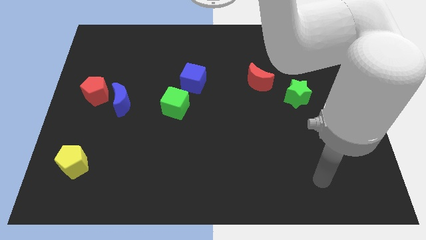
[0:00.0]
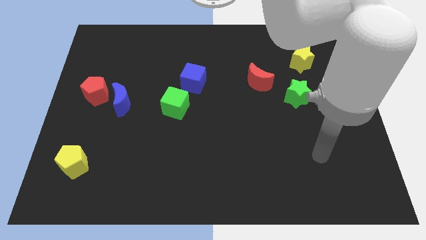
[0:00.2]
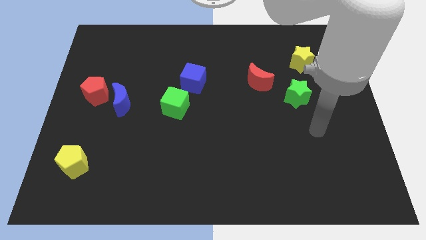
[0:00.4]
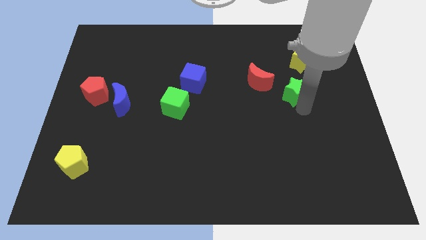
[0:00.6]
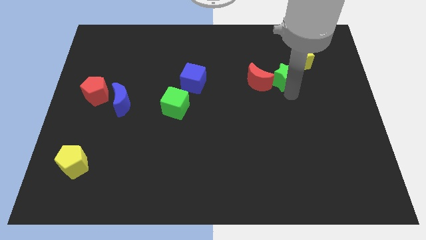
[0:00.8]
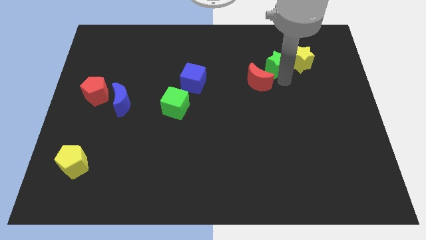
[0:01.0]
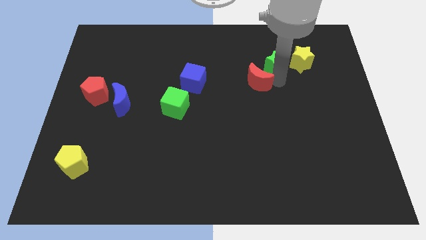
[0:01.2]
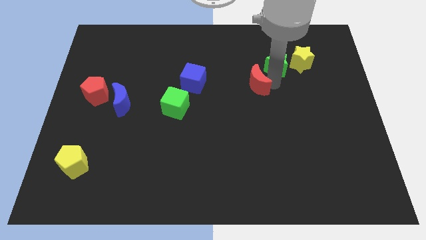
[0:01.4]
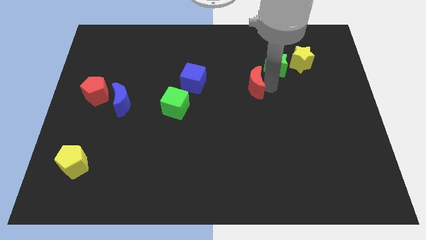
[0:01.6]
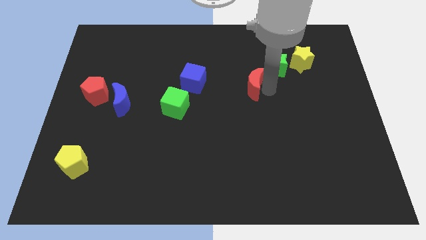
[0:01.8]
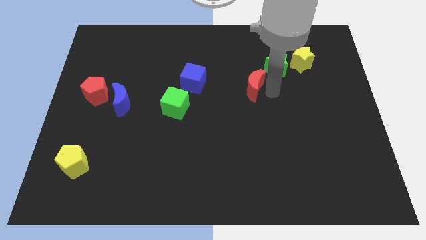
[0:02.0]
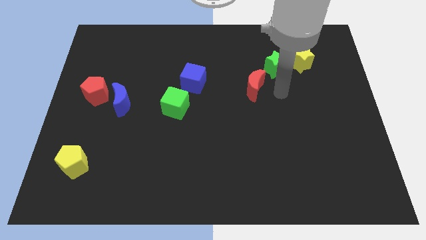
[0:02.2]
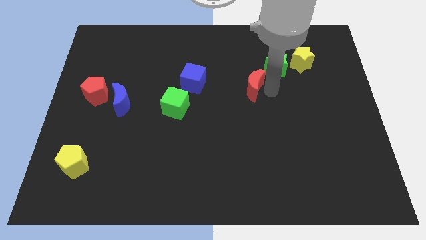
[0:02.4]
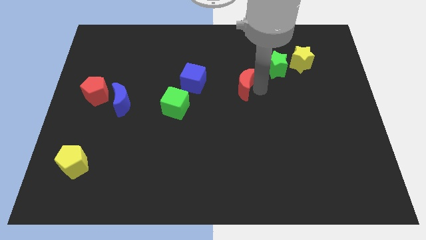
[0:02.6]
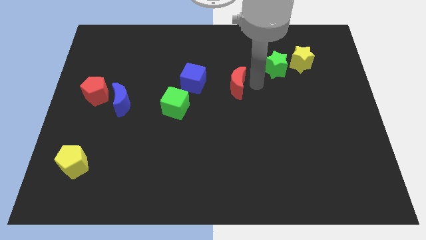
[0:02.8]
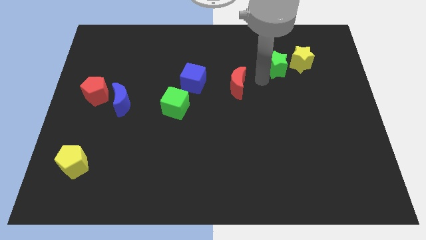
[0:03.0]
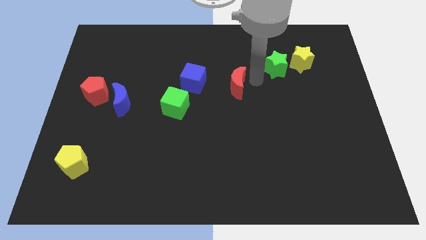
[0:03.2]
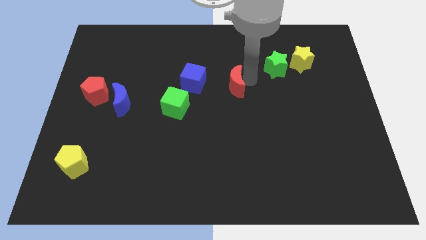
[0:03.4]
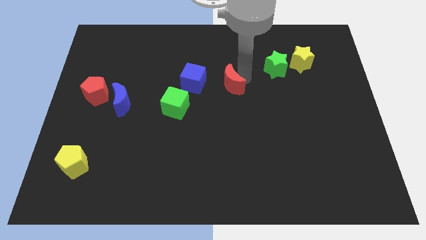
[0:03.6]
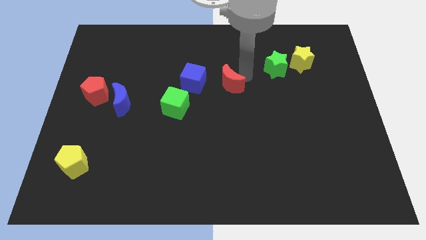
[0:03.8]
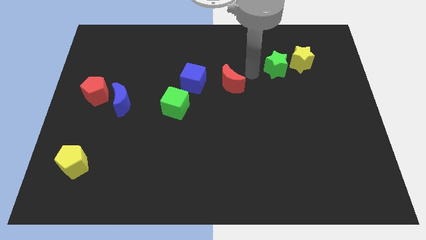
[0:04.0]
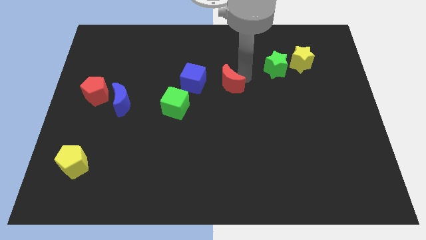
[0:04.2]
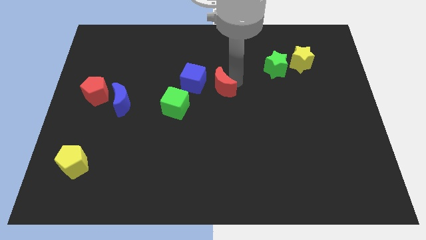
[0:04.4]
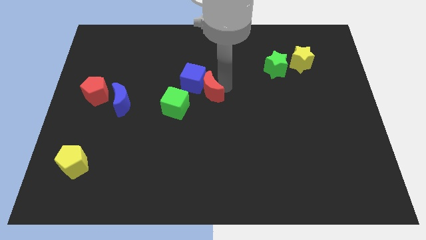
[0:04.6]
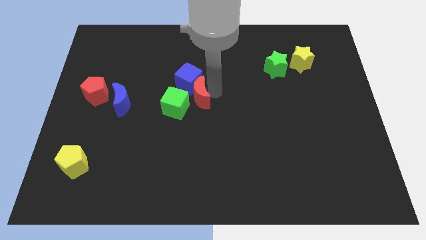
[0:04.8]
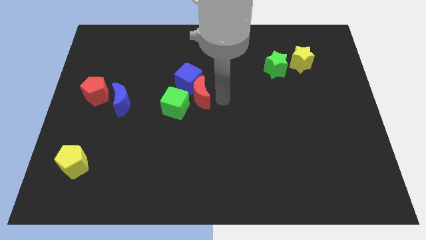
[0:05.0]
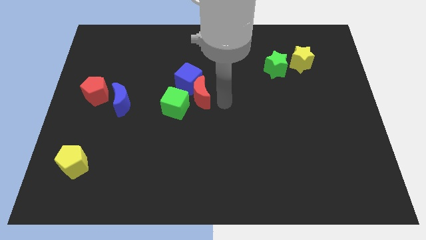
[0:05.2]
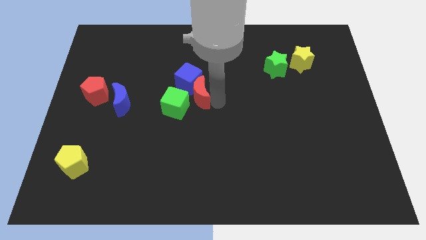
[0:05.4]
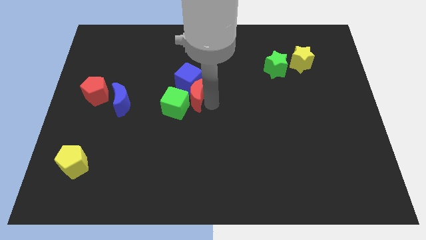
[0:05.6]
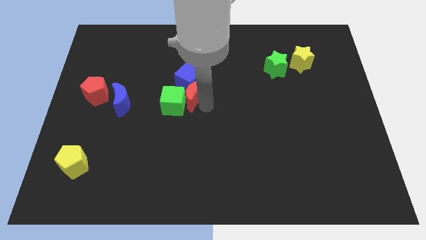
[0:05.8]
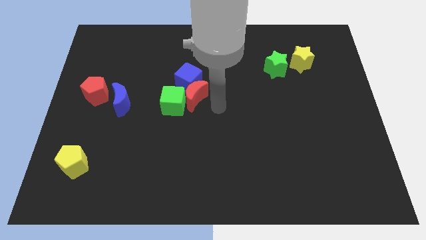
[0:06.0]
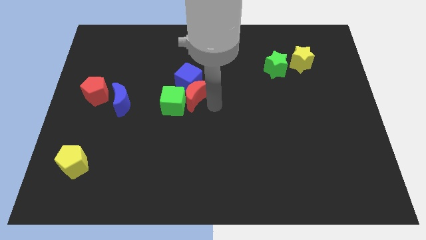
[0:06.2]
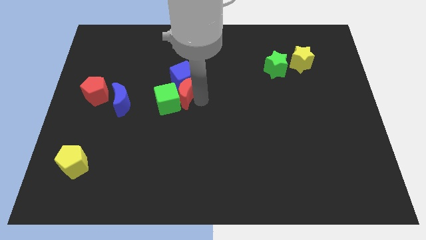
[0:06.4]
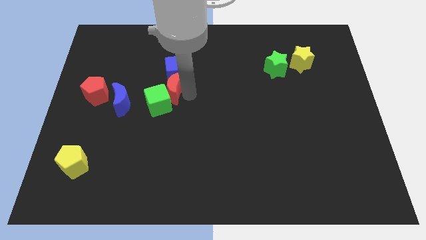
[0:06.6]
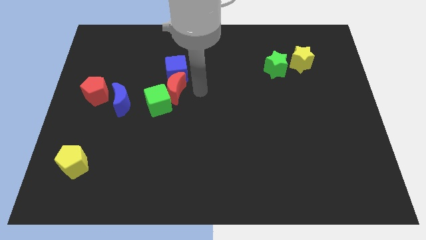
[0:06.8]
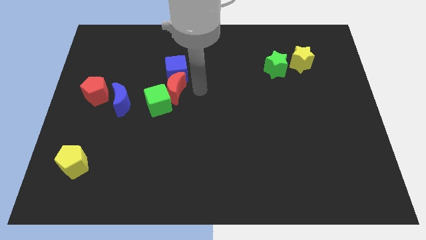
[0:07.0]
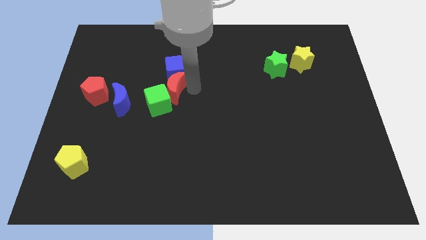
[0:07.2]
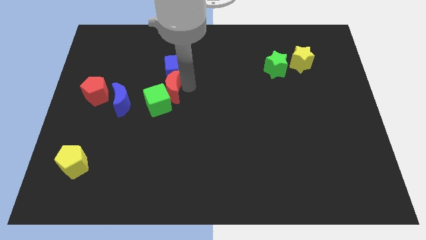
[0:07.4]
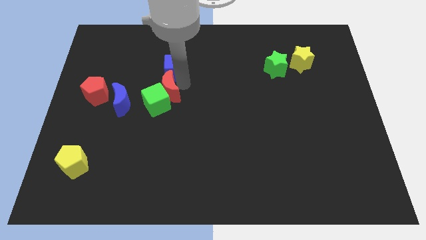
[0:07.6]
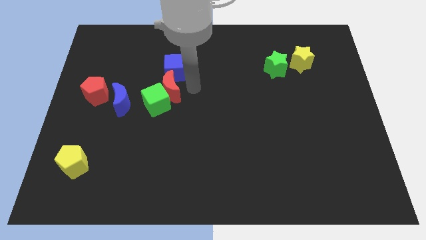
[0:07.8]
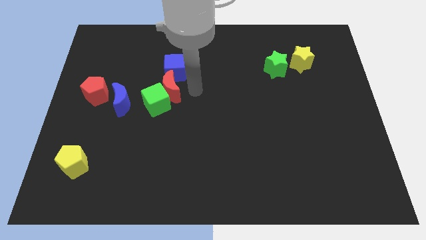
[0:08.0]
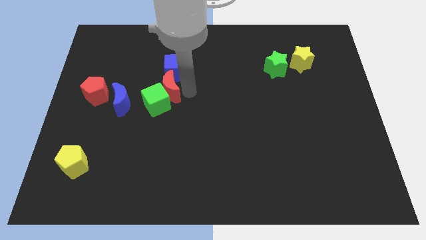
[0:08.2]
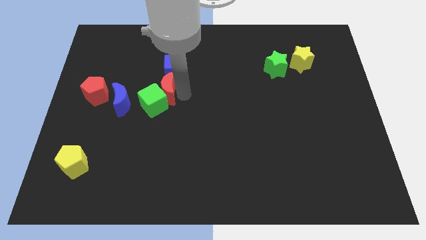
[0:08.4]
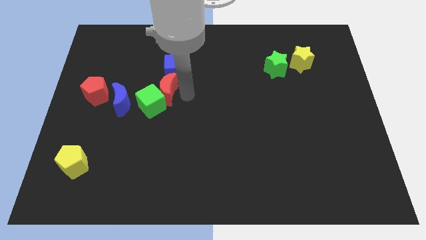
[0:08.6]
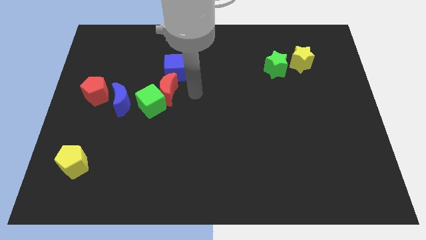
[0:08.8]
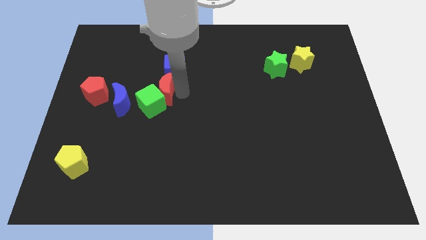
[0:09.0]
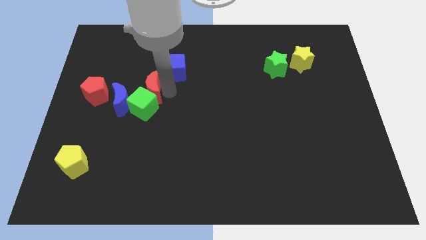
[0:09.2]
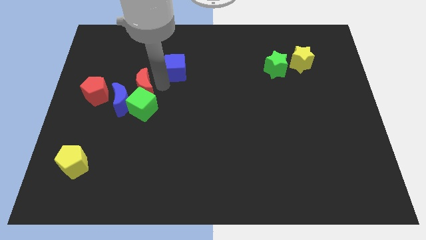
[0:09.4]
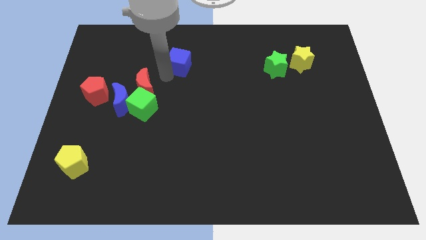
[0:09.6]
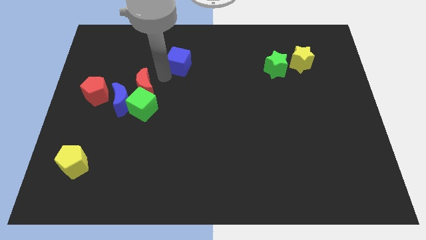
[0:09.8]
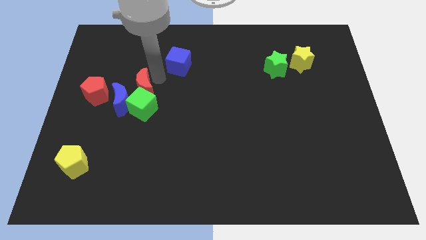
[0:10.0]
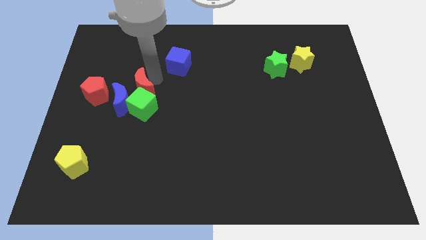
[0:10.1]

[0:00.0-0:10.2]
push the red moon towards the blue moon

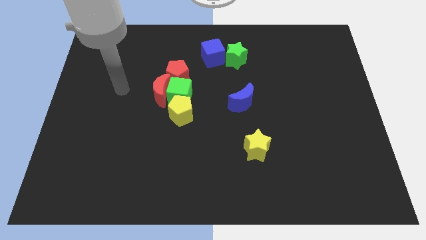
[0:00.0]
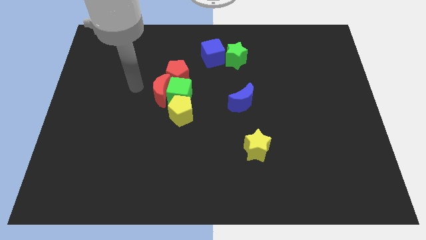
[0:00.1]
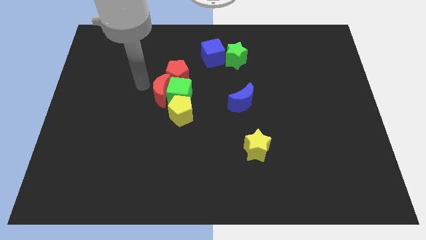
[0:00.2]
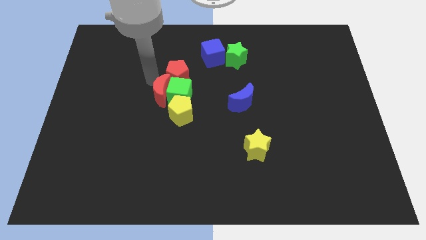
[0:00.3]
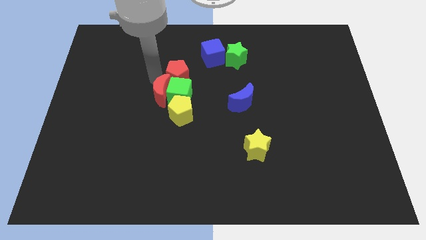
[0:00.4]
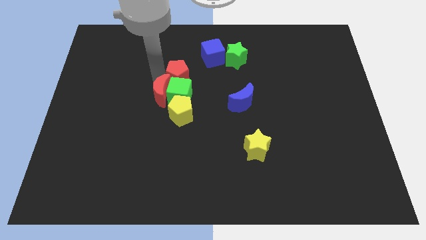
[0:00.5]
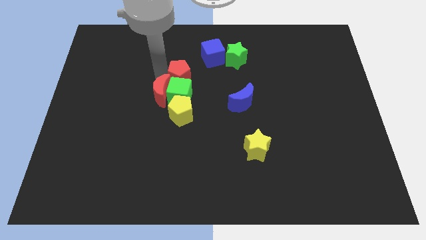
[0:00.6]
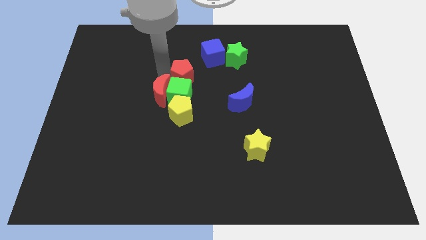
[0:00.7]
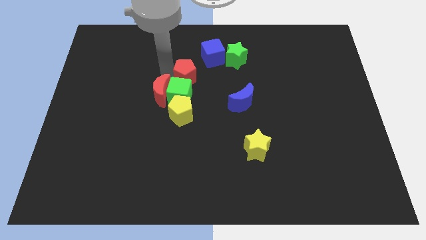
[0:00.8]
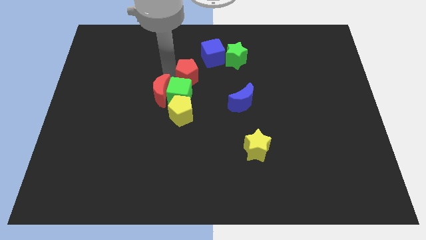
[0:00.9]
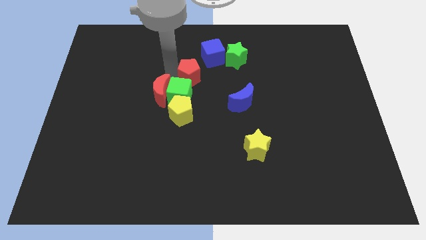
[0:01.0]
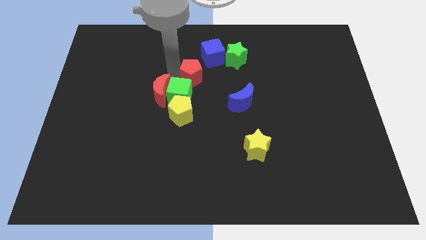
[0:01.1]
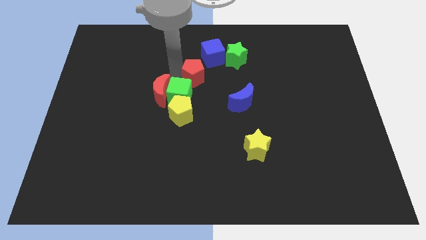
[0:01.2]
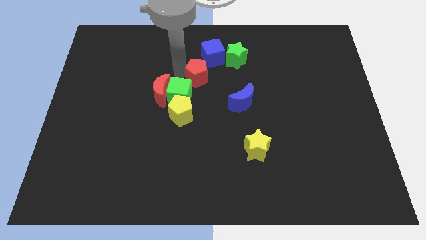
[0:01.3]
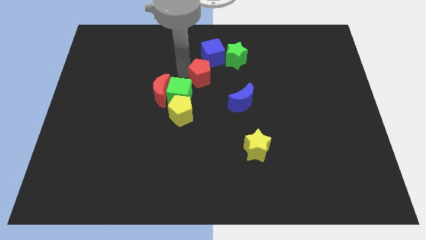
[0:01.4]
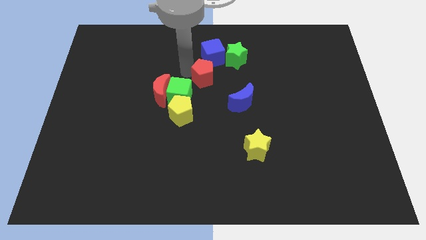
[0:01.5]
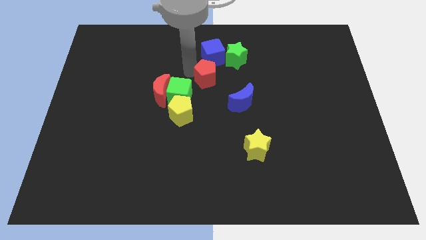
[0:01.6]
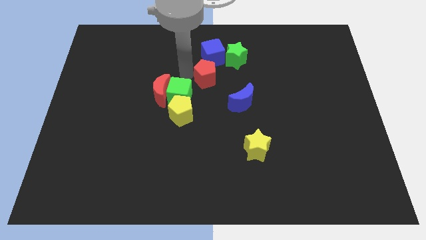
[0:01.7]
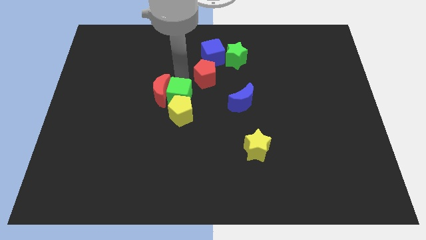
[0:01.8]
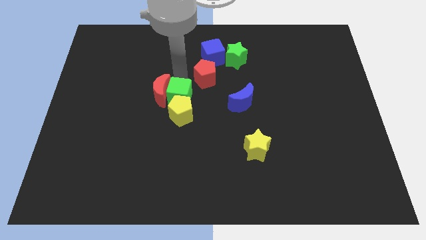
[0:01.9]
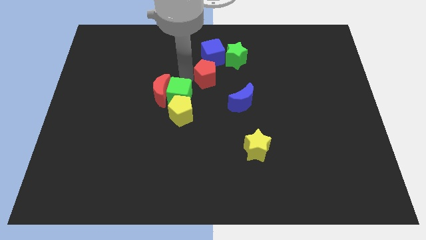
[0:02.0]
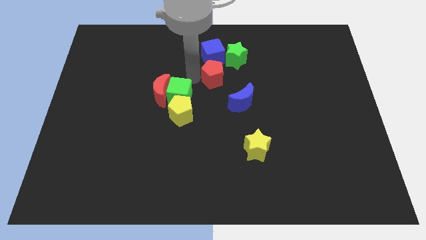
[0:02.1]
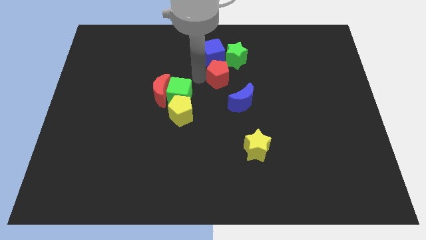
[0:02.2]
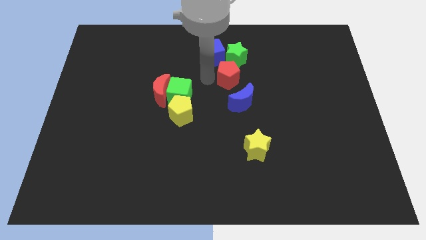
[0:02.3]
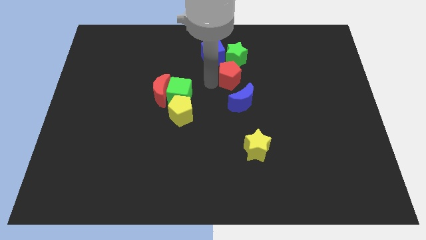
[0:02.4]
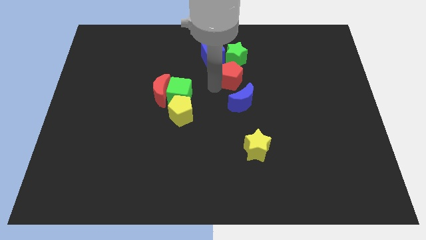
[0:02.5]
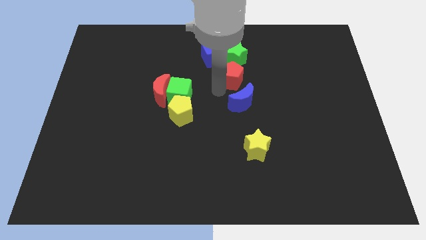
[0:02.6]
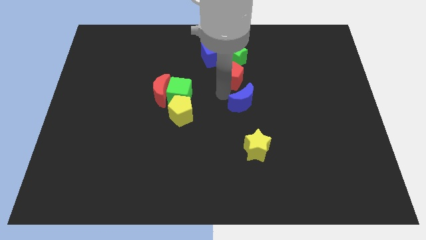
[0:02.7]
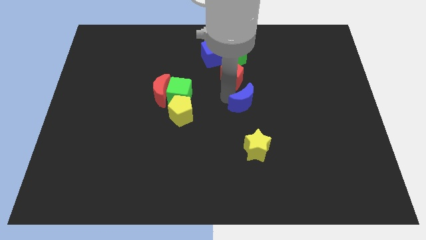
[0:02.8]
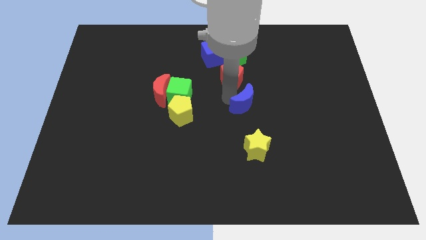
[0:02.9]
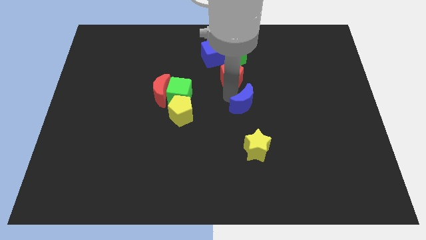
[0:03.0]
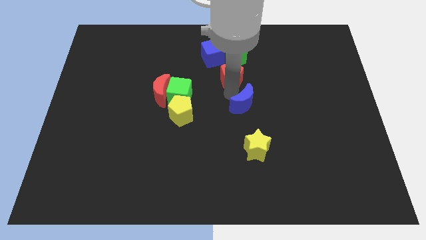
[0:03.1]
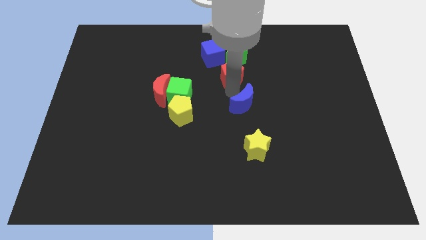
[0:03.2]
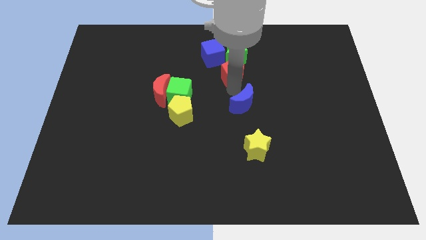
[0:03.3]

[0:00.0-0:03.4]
move the red pentagon next to the green star
